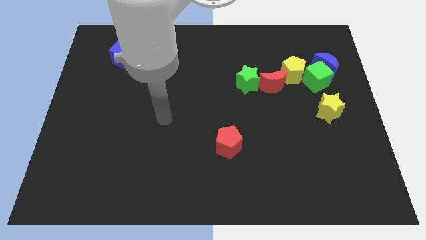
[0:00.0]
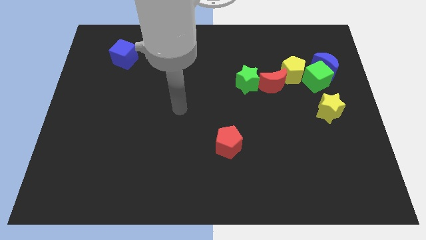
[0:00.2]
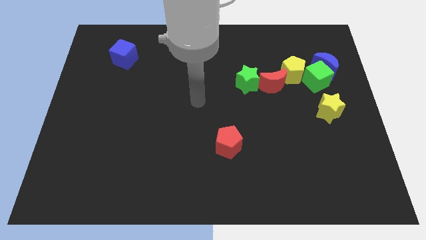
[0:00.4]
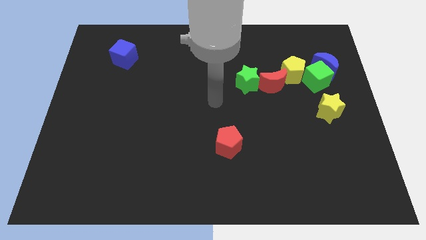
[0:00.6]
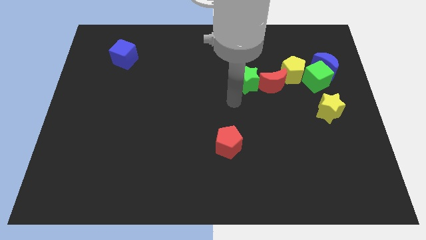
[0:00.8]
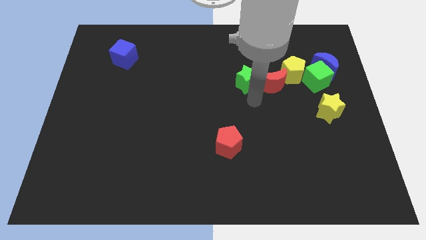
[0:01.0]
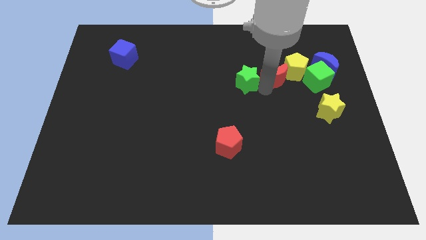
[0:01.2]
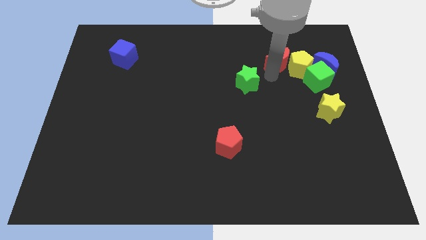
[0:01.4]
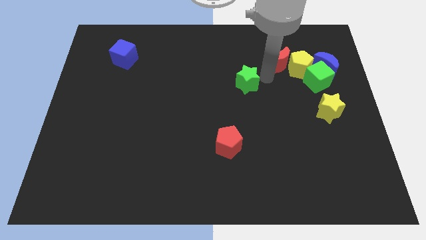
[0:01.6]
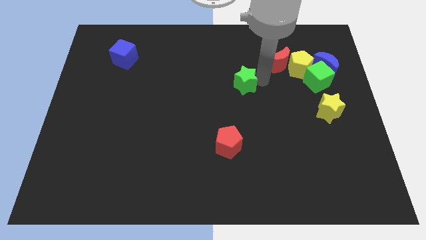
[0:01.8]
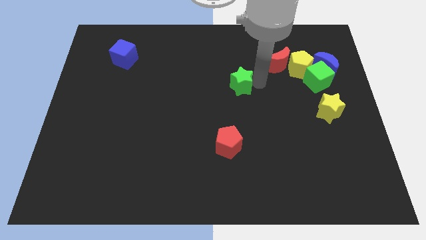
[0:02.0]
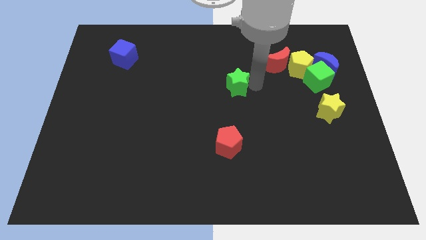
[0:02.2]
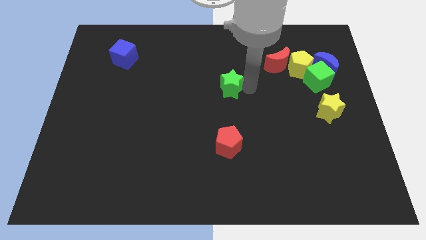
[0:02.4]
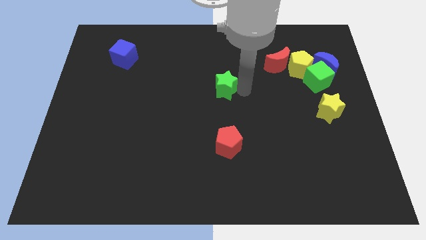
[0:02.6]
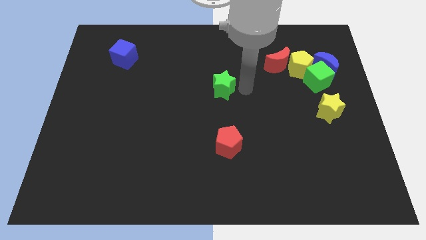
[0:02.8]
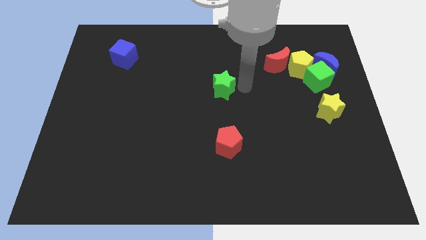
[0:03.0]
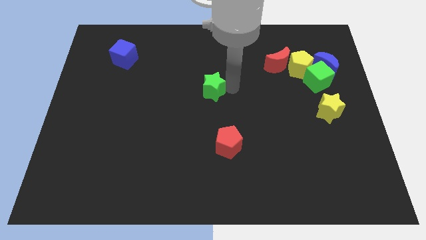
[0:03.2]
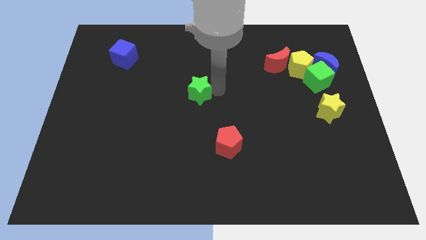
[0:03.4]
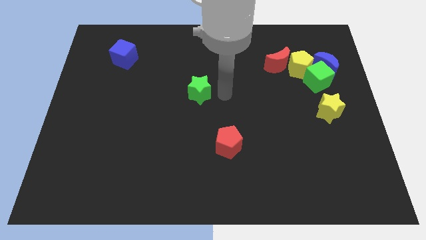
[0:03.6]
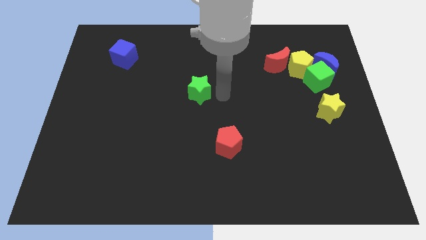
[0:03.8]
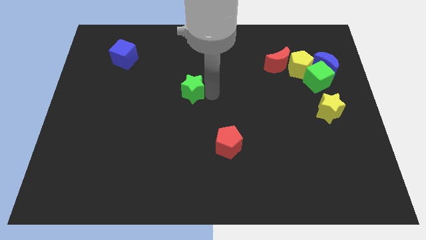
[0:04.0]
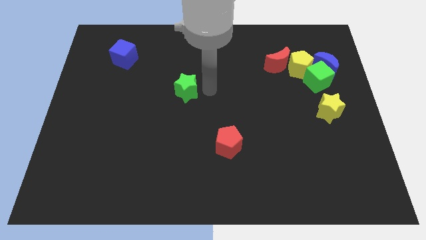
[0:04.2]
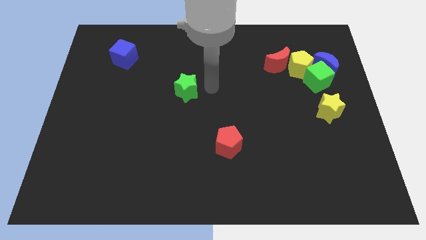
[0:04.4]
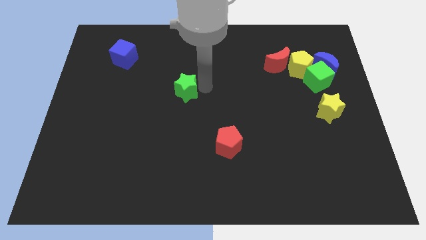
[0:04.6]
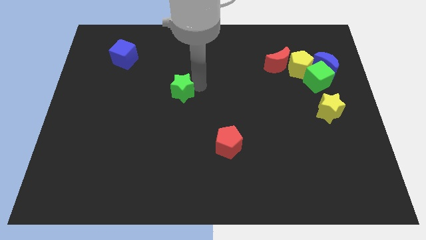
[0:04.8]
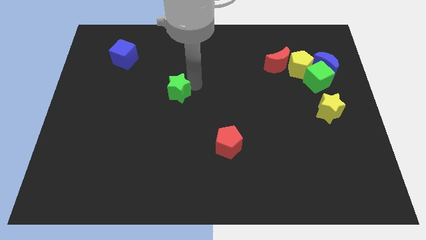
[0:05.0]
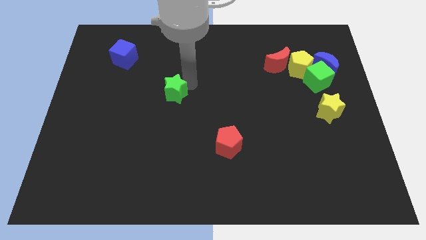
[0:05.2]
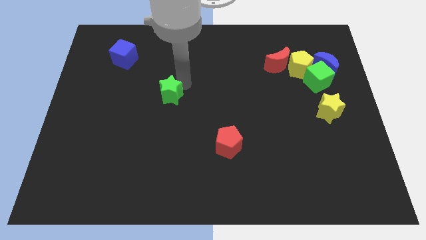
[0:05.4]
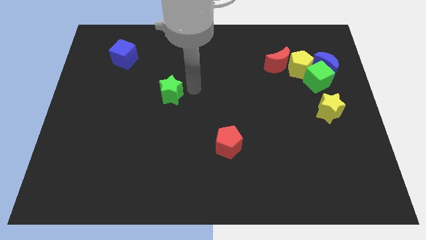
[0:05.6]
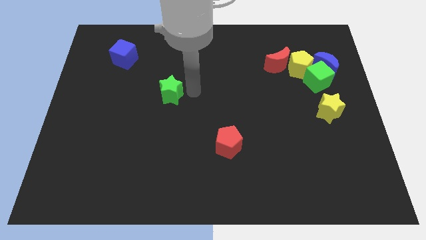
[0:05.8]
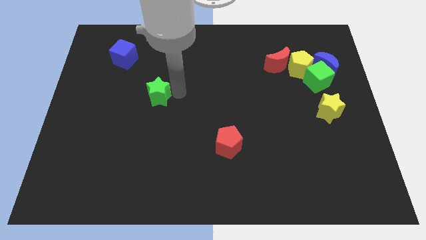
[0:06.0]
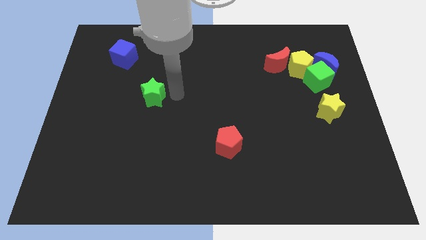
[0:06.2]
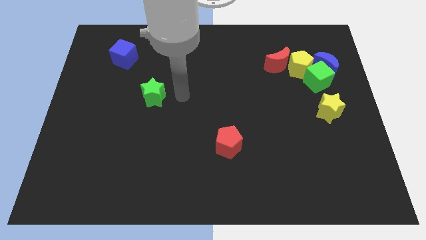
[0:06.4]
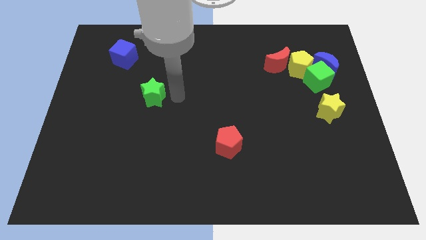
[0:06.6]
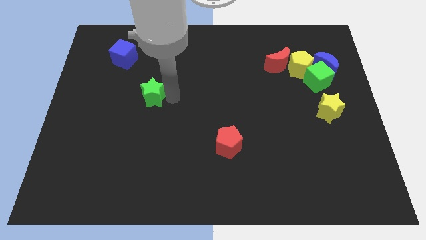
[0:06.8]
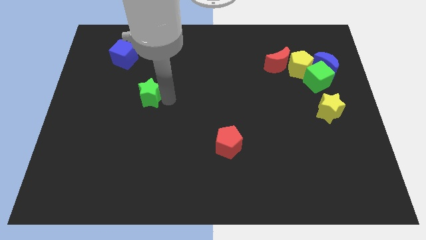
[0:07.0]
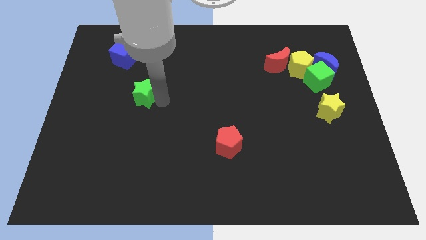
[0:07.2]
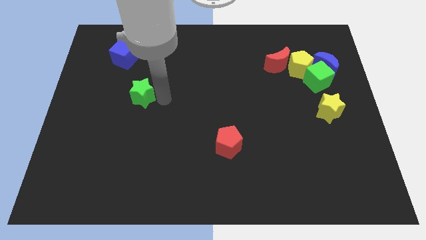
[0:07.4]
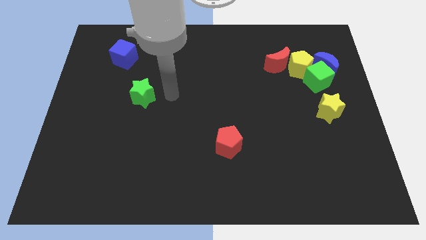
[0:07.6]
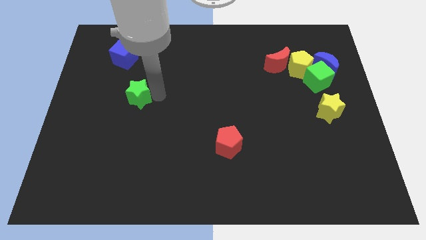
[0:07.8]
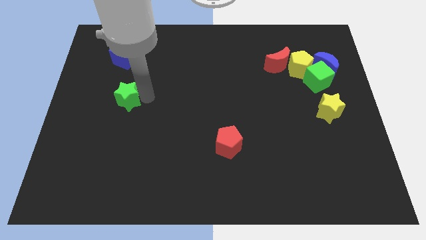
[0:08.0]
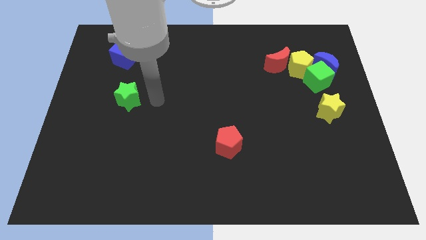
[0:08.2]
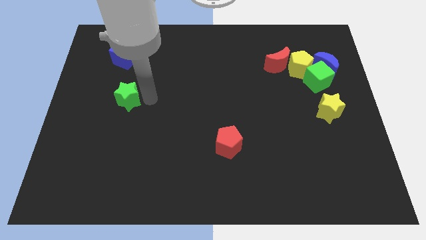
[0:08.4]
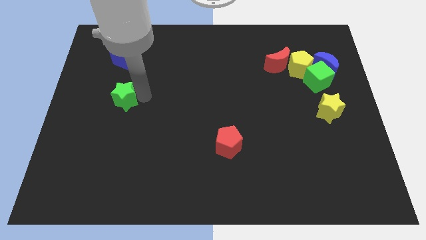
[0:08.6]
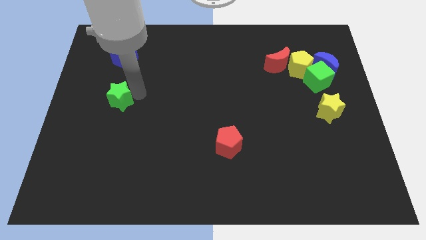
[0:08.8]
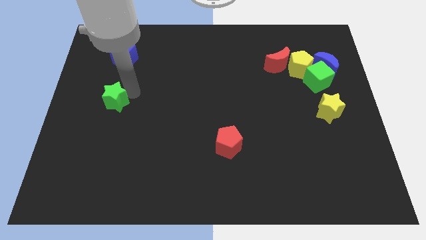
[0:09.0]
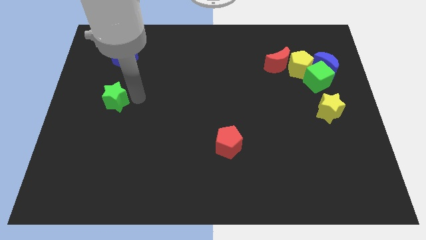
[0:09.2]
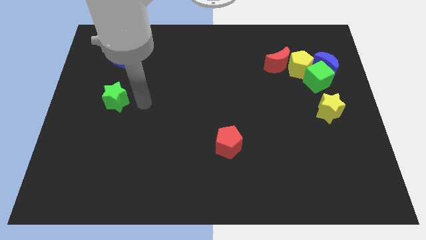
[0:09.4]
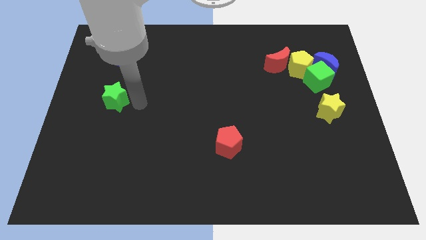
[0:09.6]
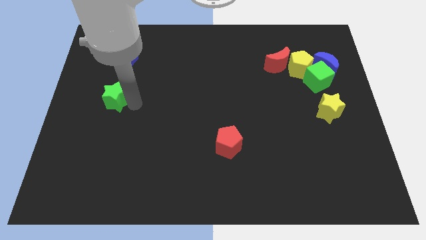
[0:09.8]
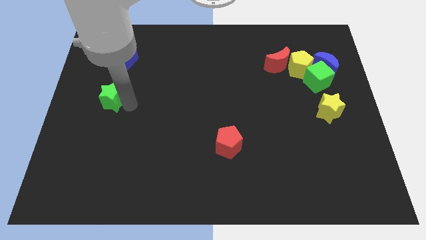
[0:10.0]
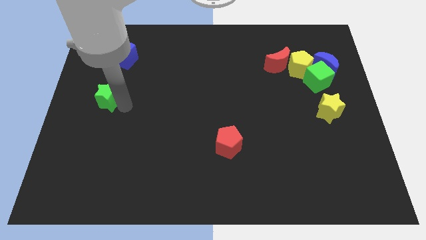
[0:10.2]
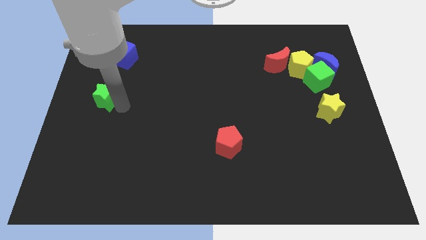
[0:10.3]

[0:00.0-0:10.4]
put the green star to the center left
